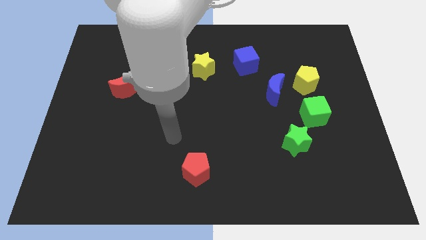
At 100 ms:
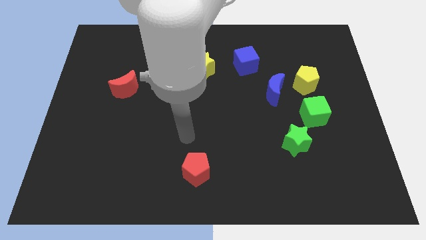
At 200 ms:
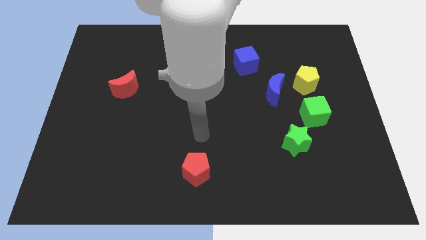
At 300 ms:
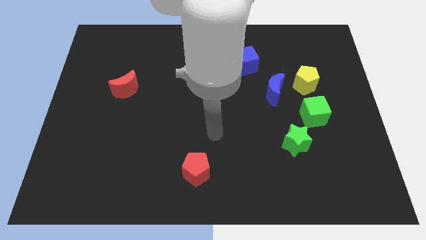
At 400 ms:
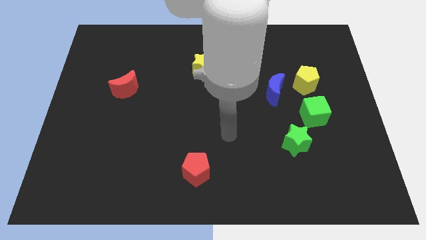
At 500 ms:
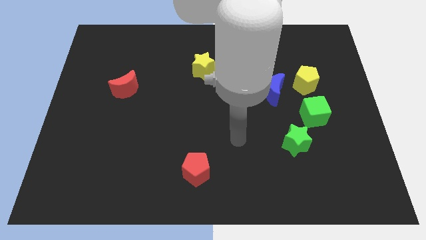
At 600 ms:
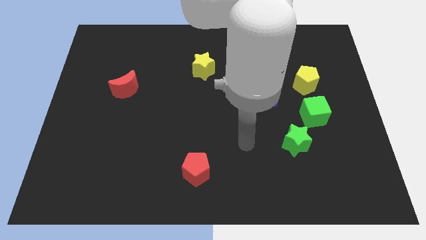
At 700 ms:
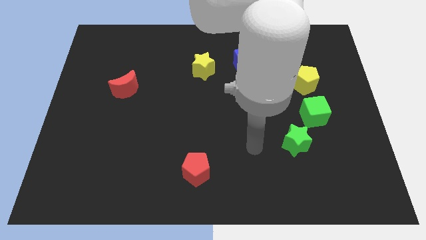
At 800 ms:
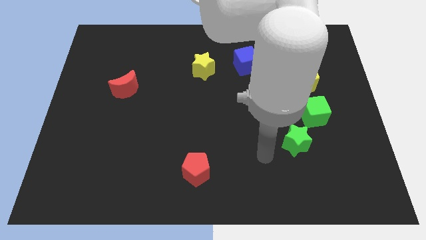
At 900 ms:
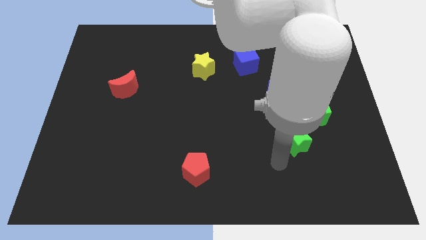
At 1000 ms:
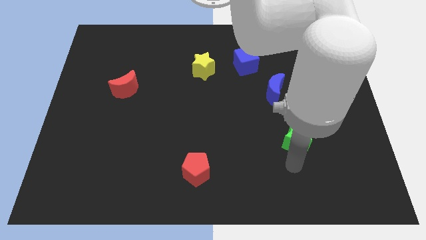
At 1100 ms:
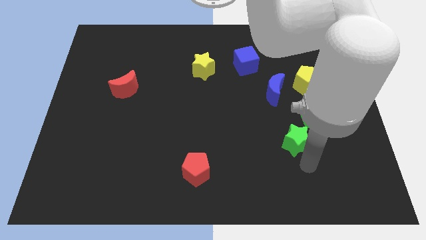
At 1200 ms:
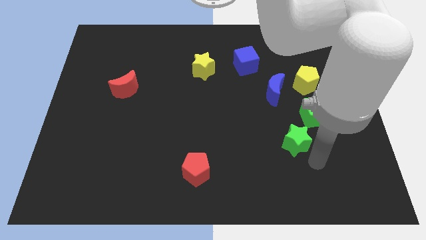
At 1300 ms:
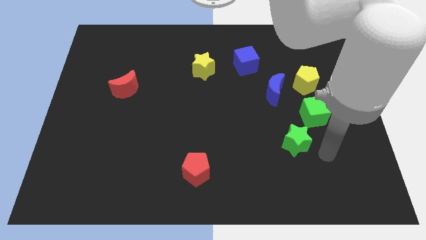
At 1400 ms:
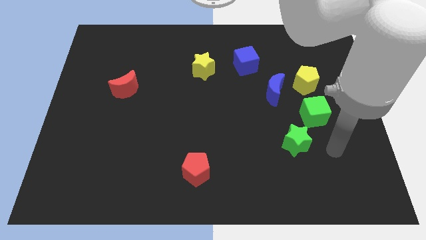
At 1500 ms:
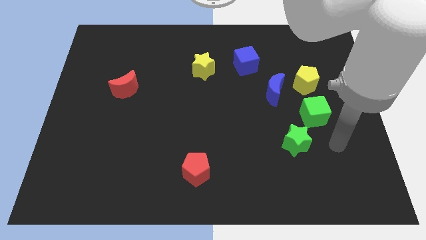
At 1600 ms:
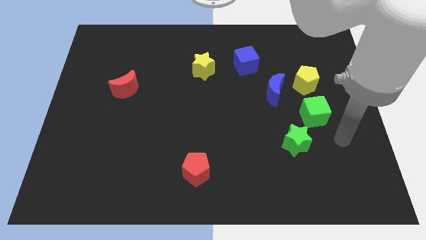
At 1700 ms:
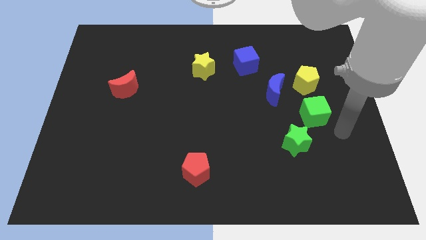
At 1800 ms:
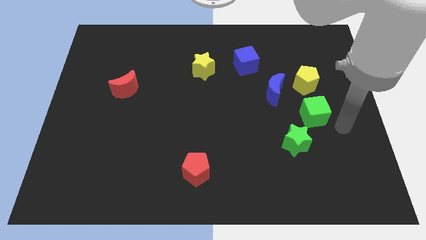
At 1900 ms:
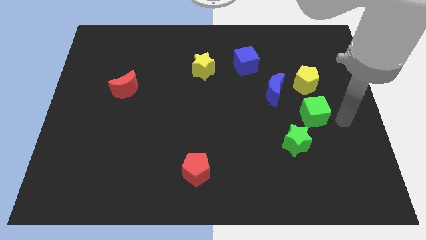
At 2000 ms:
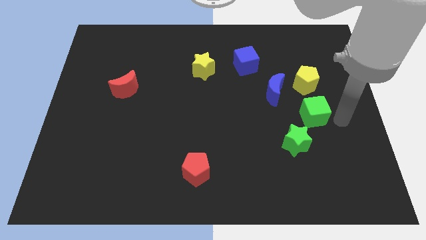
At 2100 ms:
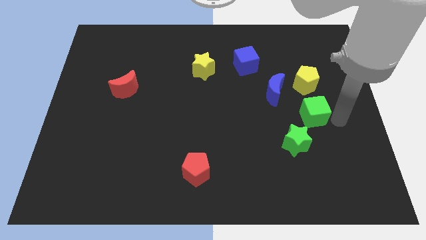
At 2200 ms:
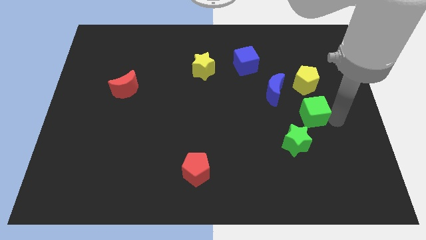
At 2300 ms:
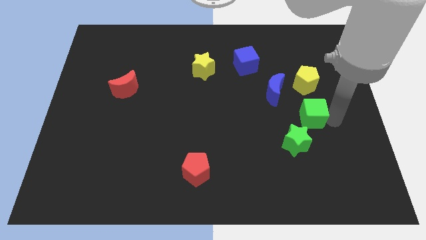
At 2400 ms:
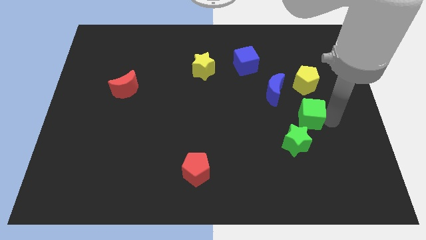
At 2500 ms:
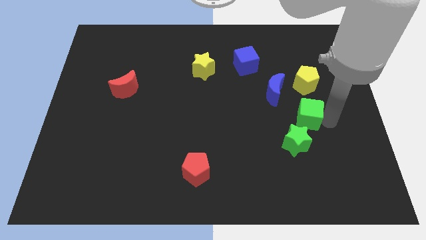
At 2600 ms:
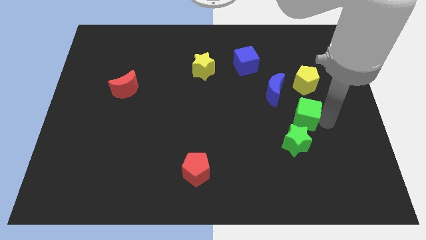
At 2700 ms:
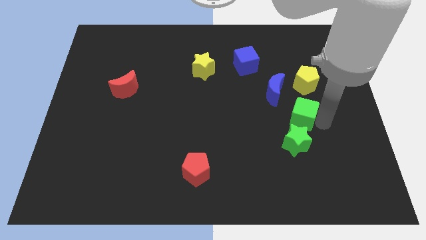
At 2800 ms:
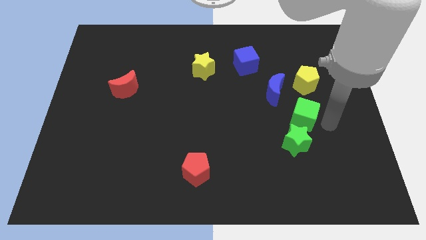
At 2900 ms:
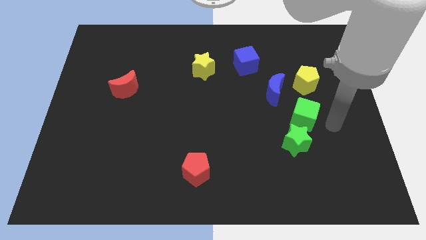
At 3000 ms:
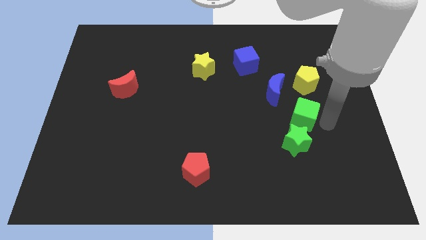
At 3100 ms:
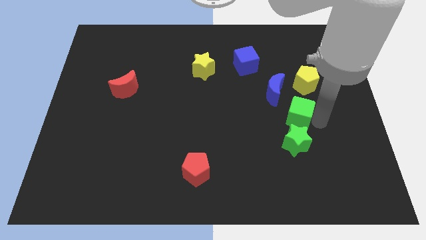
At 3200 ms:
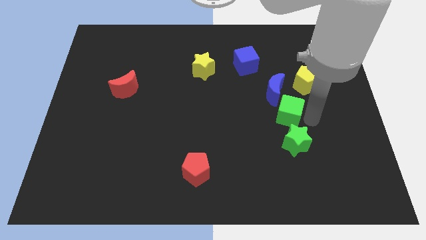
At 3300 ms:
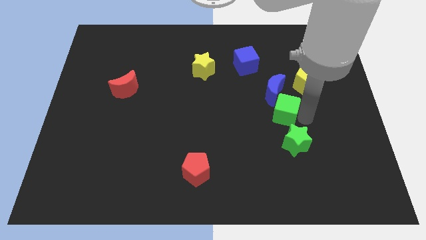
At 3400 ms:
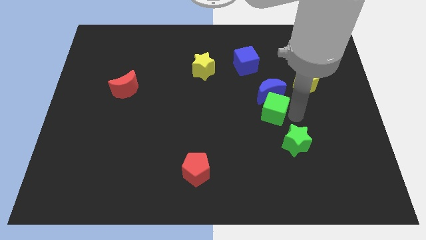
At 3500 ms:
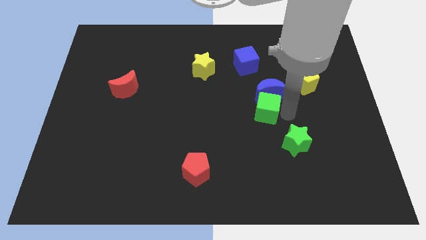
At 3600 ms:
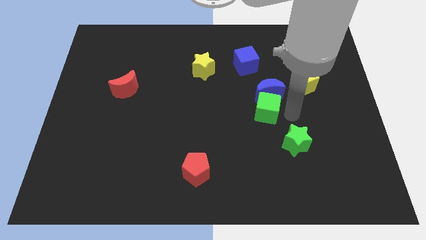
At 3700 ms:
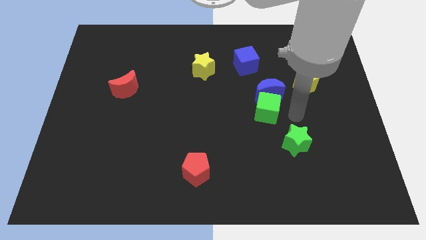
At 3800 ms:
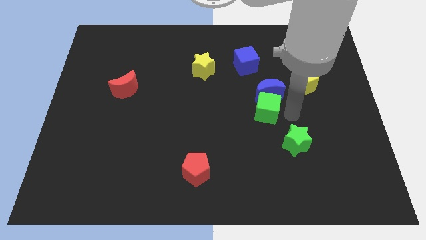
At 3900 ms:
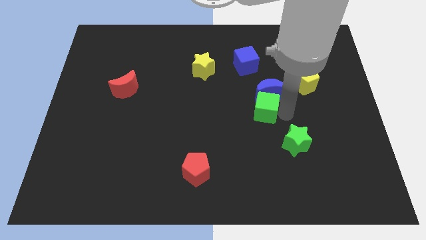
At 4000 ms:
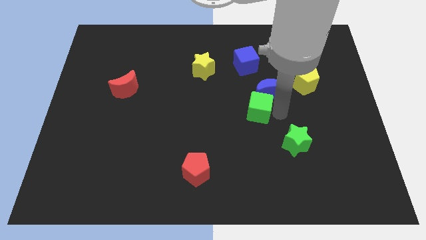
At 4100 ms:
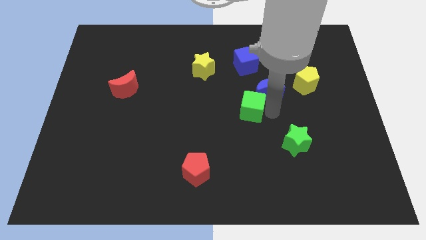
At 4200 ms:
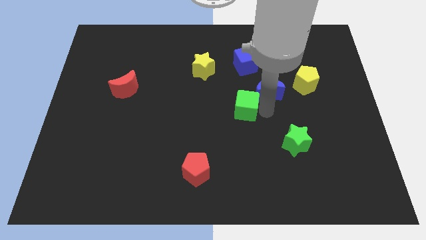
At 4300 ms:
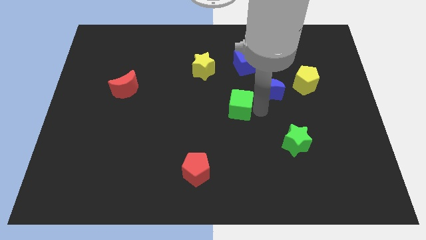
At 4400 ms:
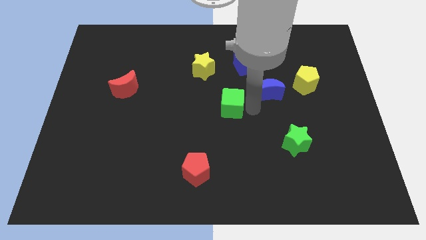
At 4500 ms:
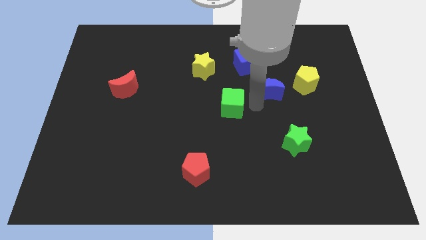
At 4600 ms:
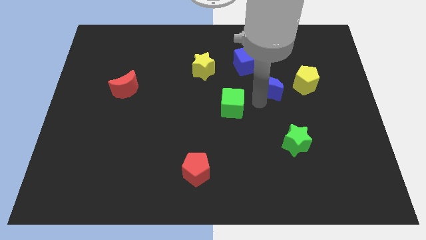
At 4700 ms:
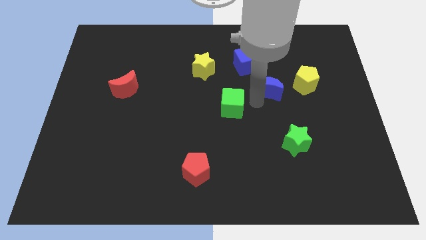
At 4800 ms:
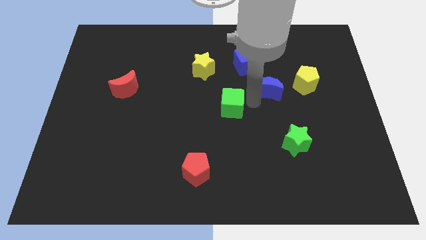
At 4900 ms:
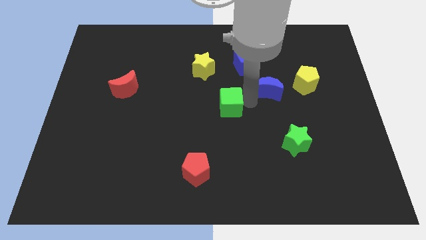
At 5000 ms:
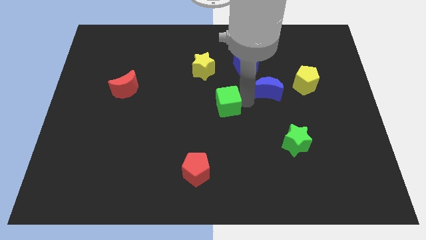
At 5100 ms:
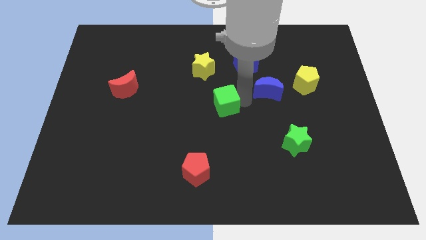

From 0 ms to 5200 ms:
move the green cube to the left

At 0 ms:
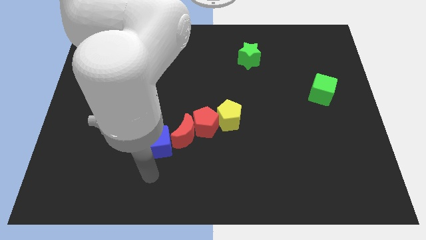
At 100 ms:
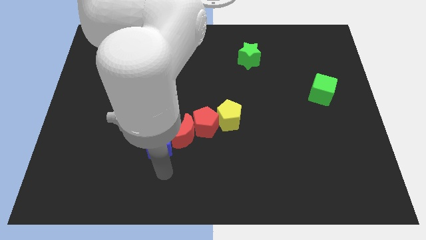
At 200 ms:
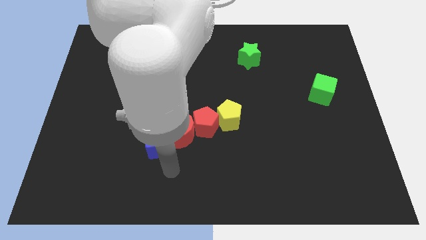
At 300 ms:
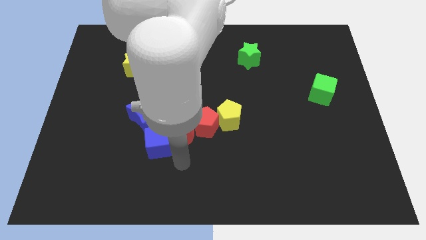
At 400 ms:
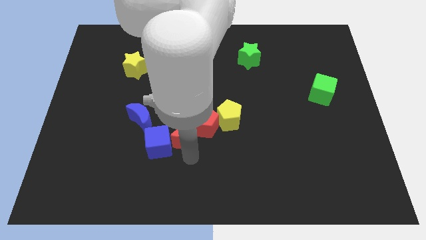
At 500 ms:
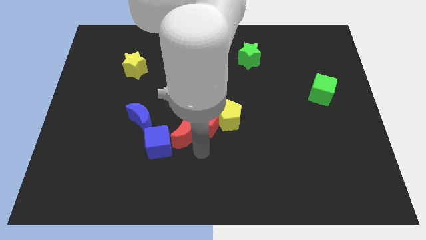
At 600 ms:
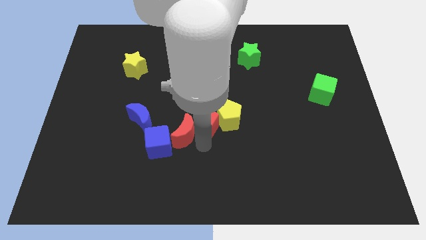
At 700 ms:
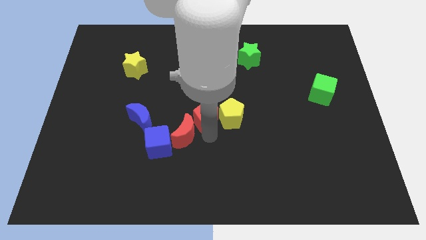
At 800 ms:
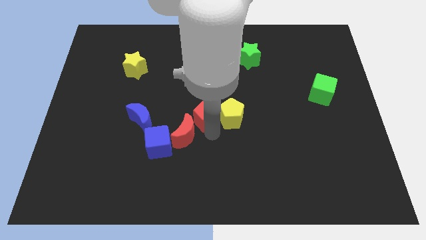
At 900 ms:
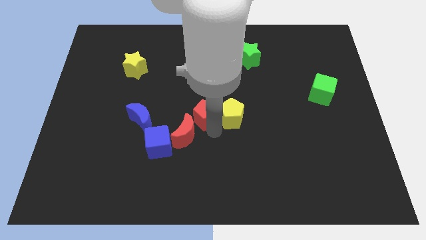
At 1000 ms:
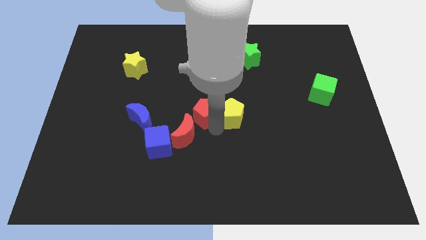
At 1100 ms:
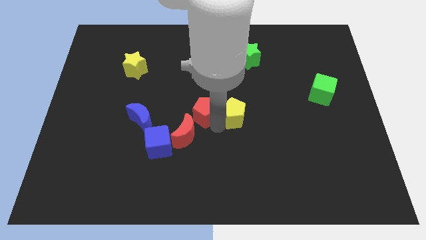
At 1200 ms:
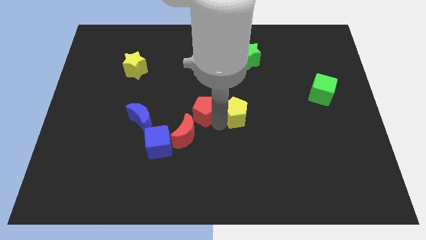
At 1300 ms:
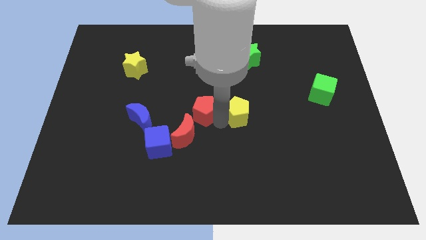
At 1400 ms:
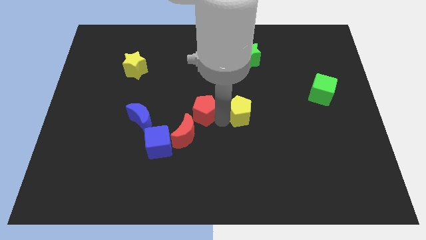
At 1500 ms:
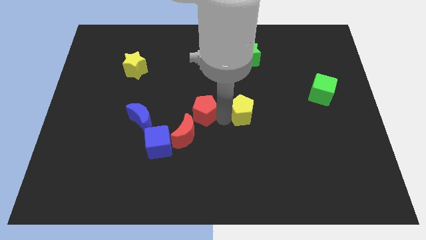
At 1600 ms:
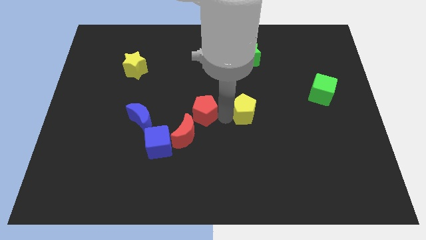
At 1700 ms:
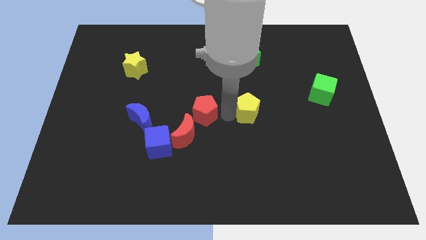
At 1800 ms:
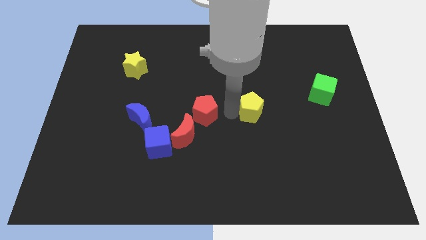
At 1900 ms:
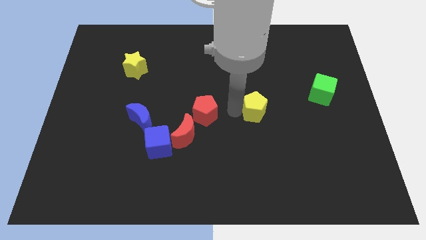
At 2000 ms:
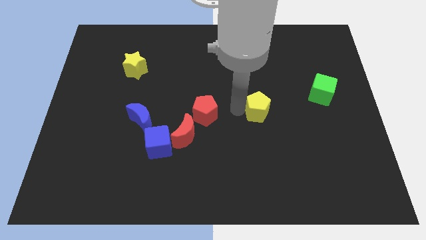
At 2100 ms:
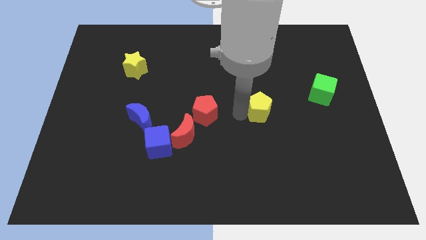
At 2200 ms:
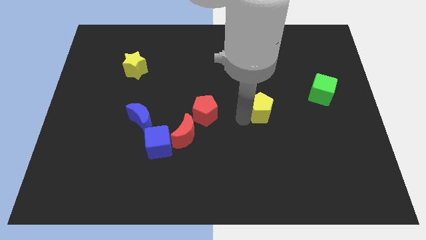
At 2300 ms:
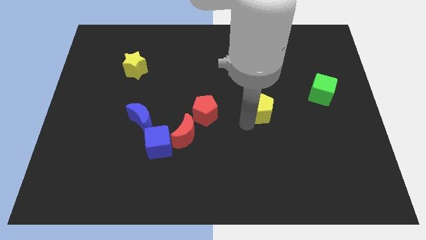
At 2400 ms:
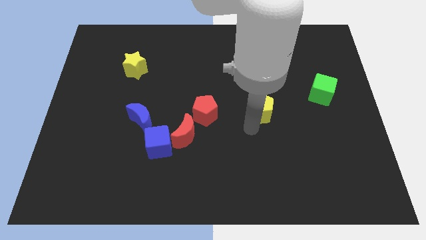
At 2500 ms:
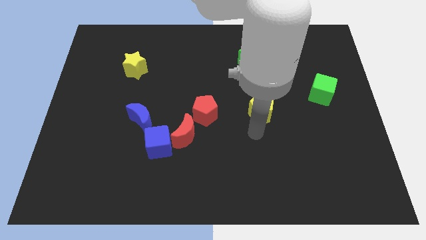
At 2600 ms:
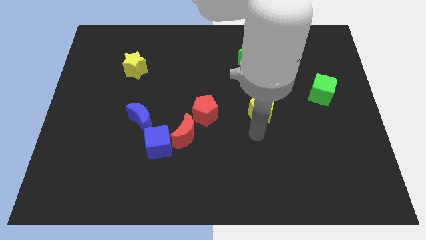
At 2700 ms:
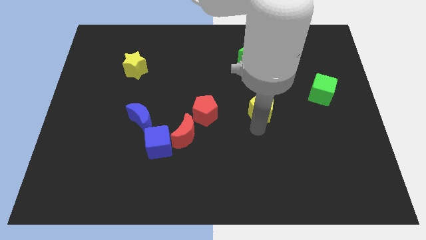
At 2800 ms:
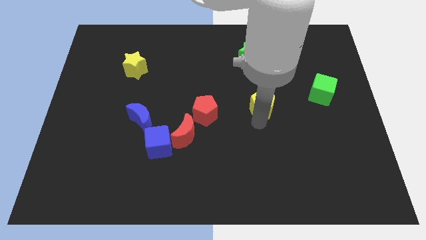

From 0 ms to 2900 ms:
push the yellow pentagon a little up and to the right

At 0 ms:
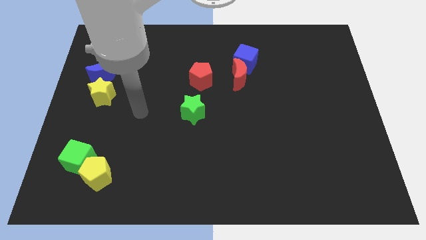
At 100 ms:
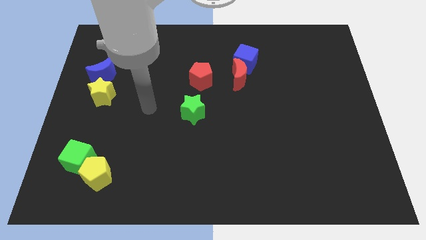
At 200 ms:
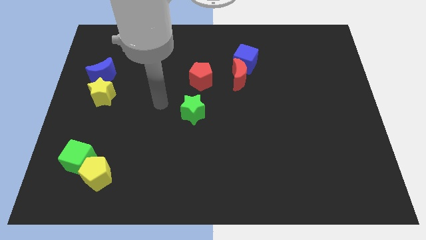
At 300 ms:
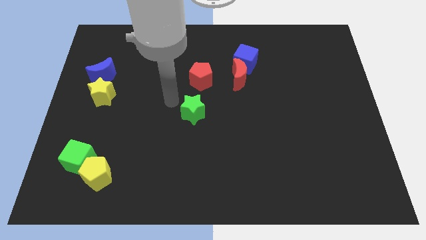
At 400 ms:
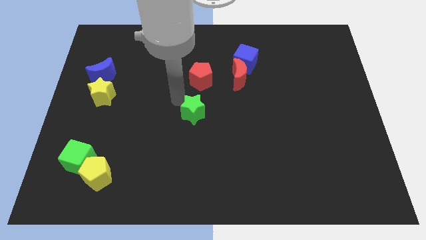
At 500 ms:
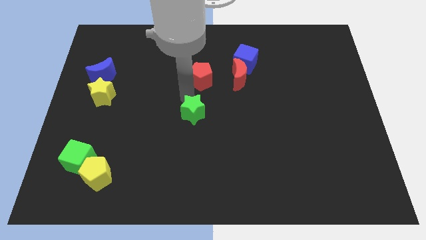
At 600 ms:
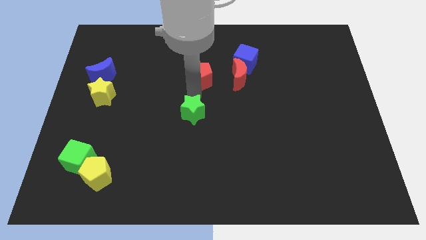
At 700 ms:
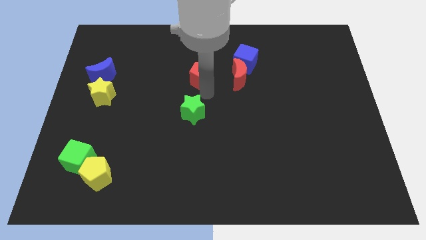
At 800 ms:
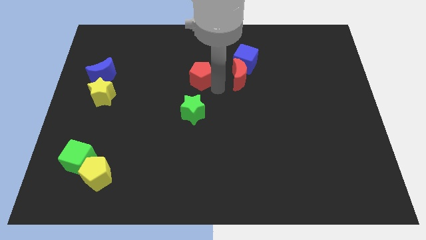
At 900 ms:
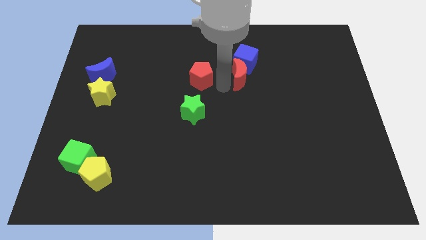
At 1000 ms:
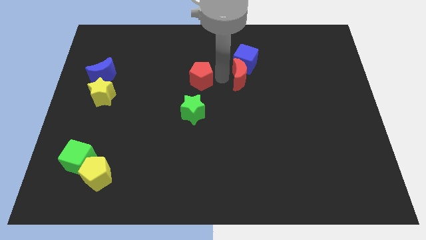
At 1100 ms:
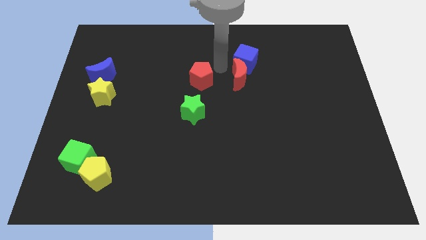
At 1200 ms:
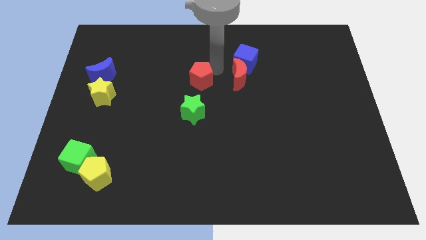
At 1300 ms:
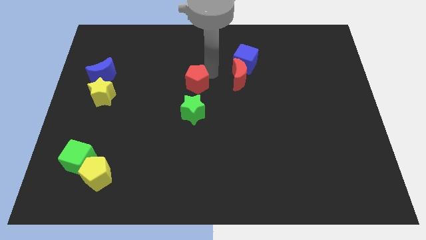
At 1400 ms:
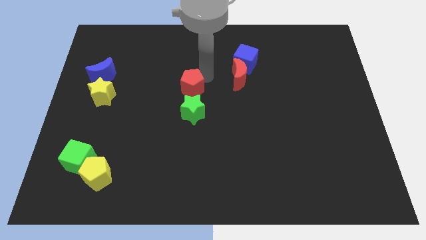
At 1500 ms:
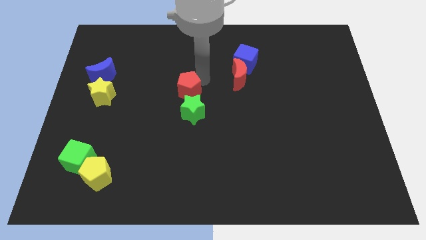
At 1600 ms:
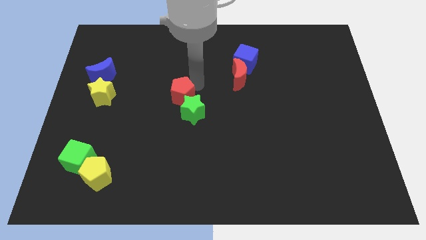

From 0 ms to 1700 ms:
slightly push the red pentagon diagonally down and to the left
